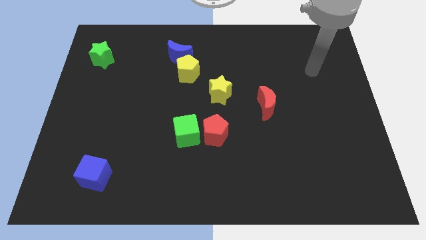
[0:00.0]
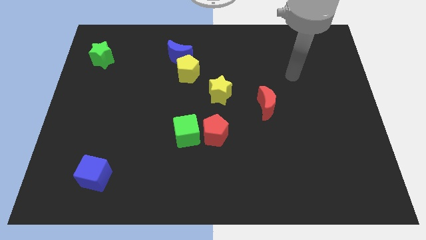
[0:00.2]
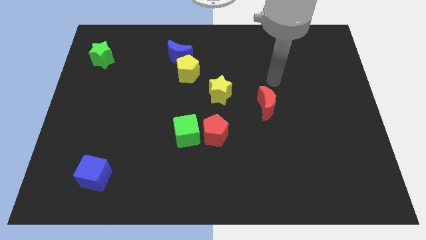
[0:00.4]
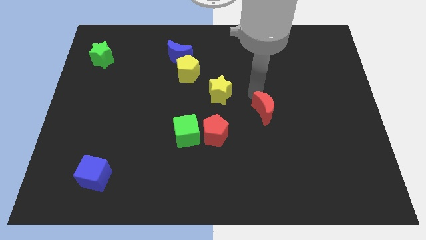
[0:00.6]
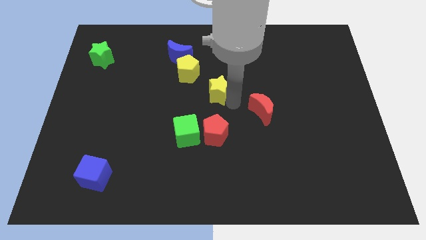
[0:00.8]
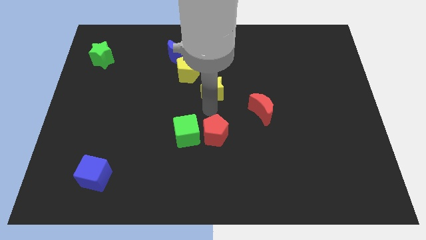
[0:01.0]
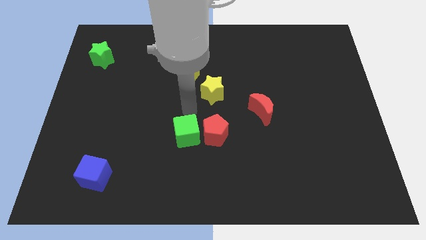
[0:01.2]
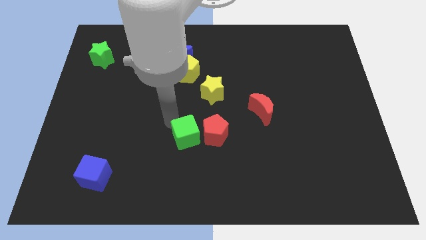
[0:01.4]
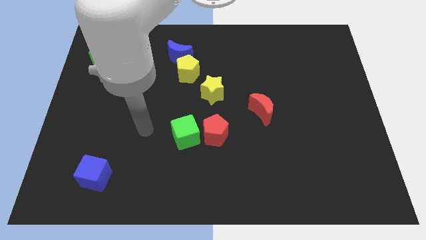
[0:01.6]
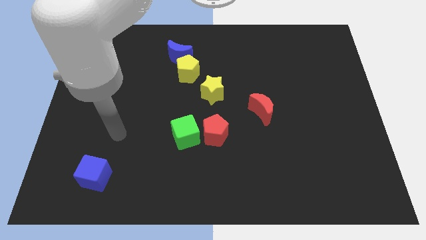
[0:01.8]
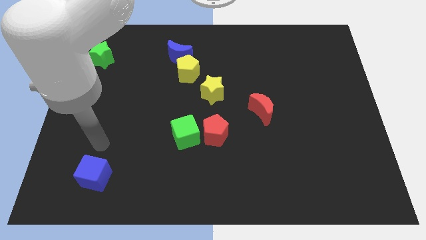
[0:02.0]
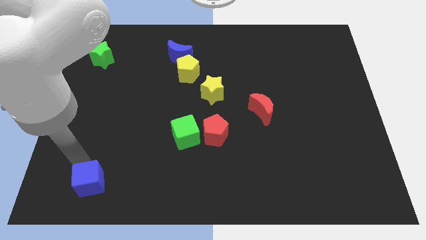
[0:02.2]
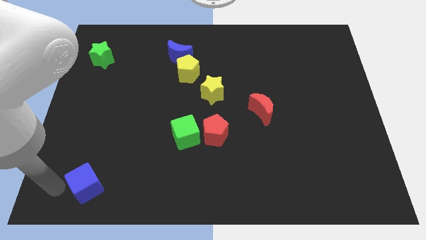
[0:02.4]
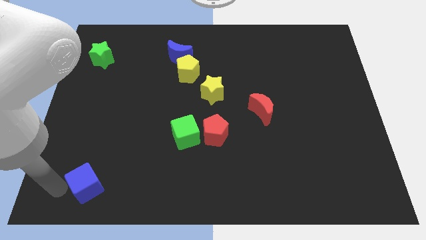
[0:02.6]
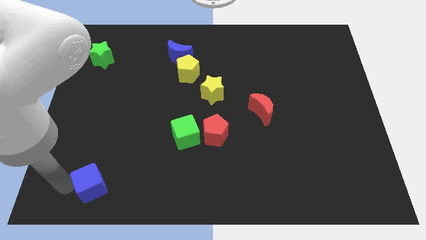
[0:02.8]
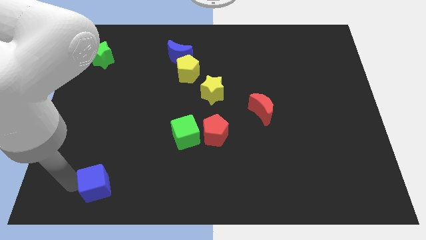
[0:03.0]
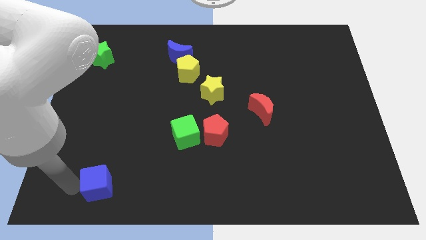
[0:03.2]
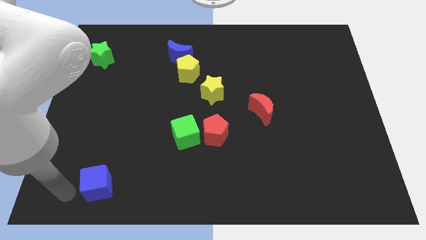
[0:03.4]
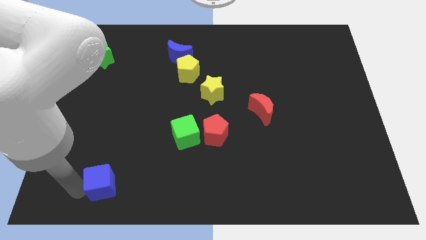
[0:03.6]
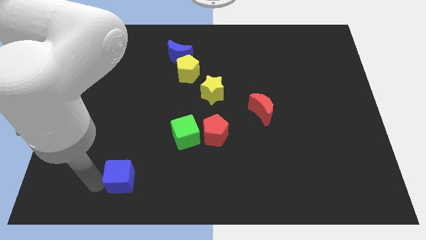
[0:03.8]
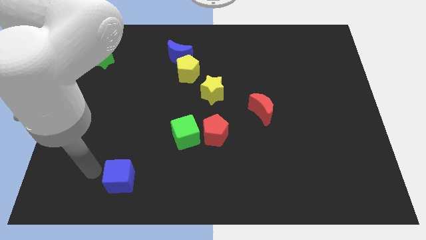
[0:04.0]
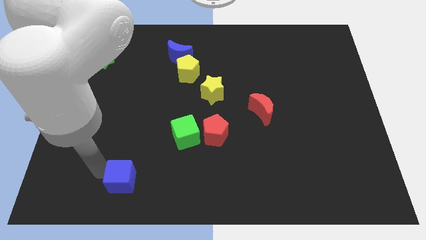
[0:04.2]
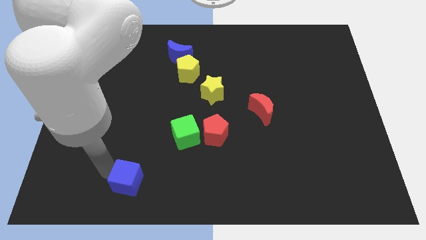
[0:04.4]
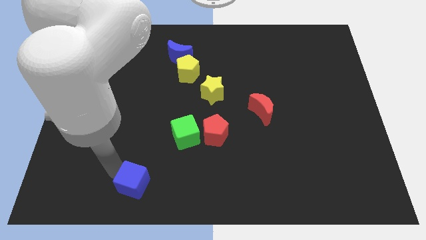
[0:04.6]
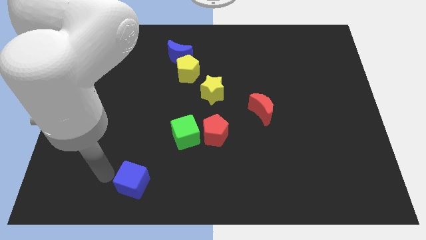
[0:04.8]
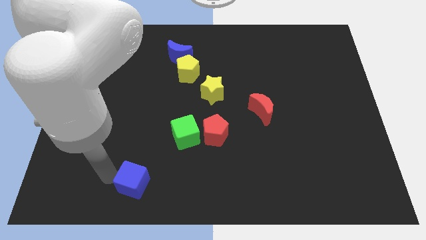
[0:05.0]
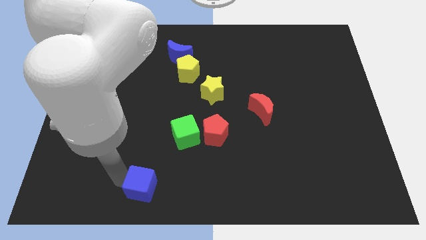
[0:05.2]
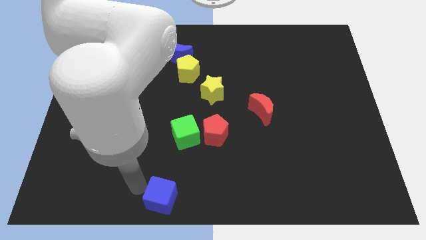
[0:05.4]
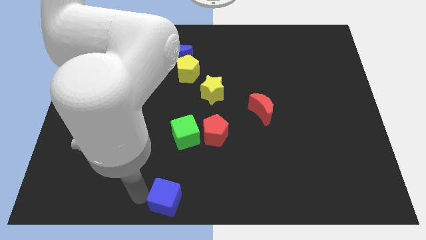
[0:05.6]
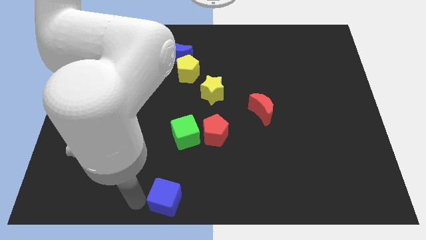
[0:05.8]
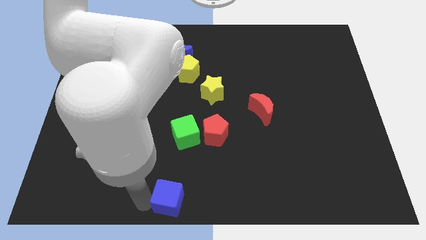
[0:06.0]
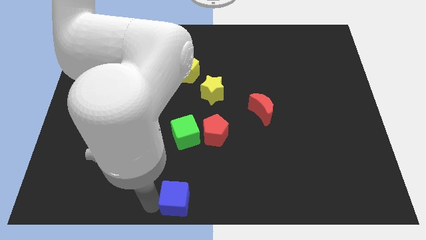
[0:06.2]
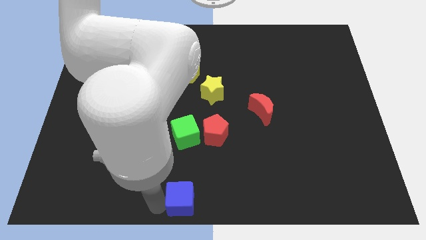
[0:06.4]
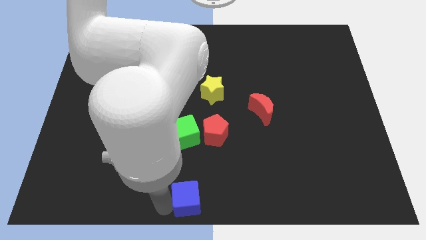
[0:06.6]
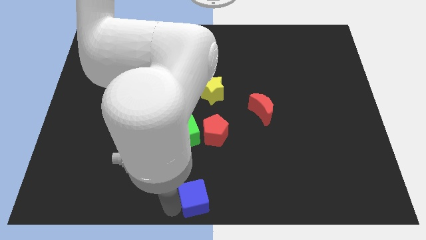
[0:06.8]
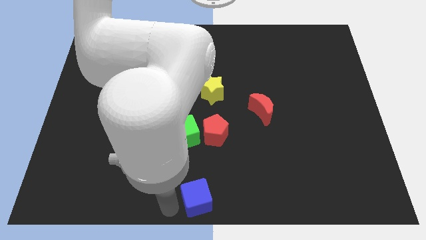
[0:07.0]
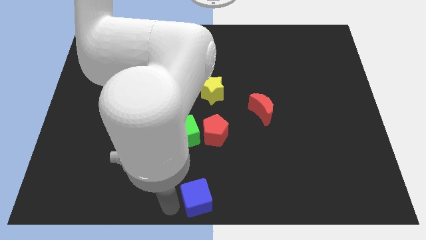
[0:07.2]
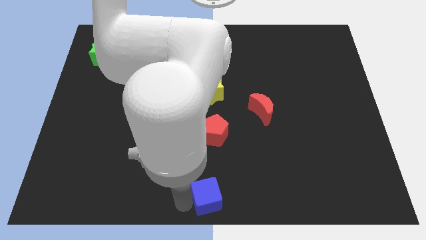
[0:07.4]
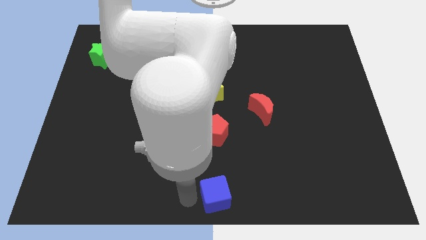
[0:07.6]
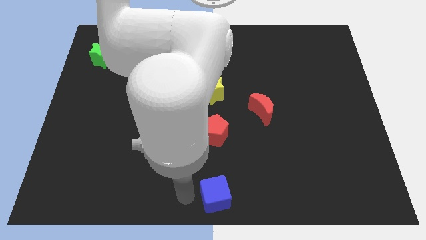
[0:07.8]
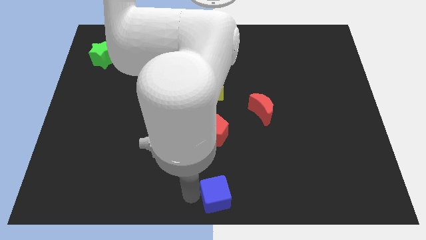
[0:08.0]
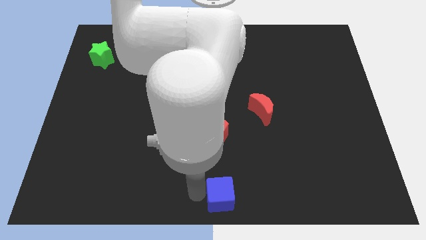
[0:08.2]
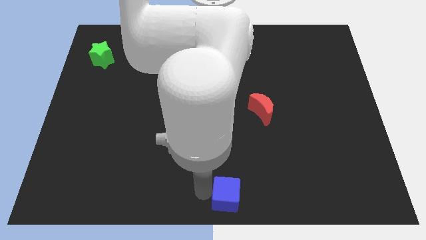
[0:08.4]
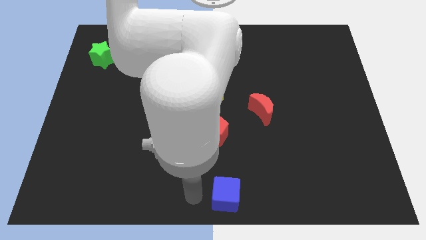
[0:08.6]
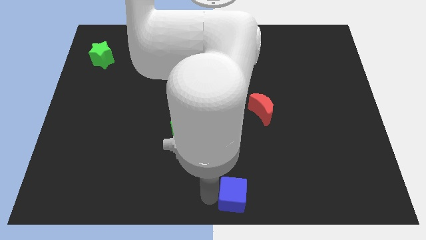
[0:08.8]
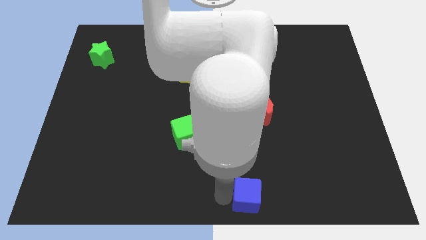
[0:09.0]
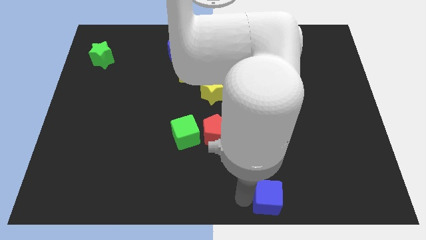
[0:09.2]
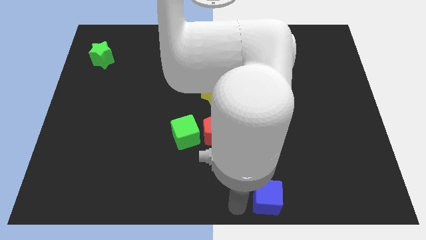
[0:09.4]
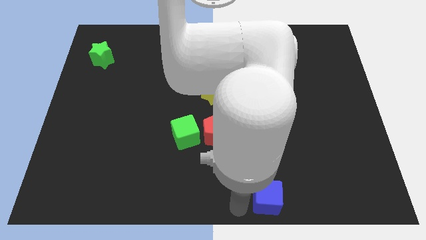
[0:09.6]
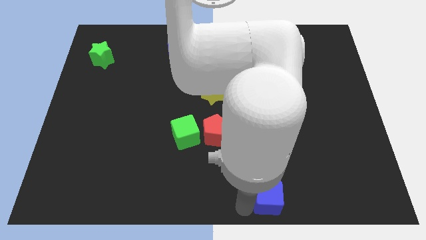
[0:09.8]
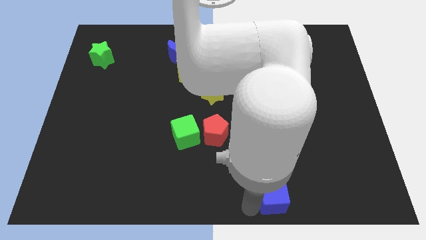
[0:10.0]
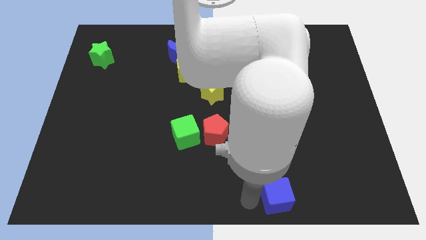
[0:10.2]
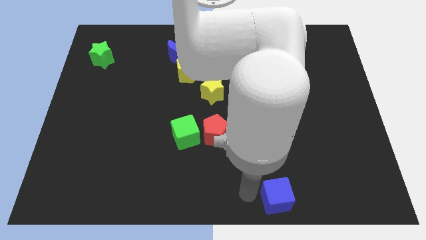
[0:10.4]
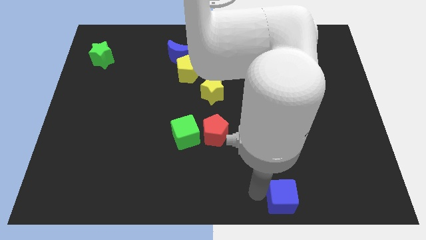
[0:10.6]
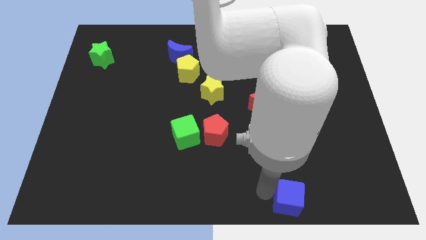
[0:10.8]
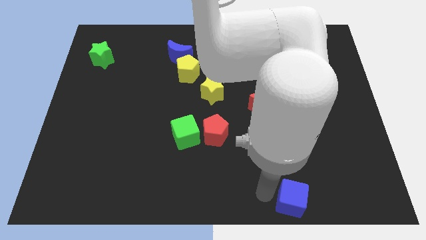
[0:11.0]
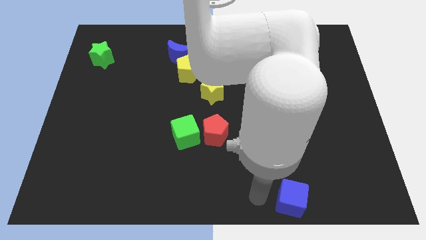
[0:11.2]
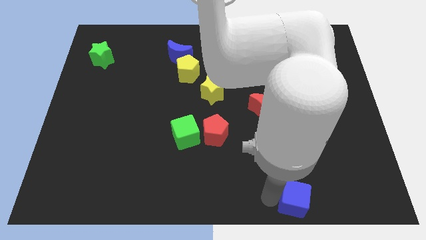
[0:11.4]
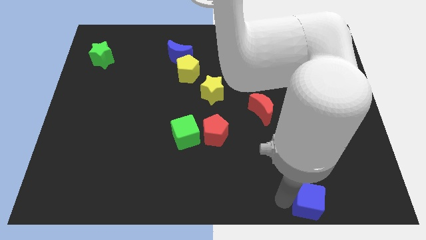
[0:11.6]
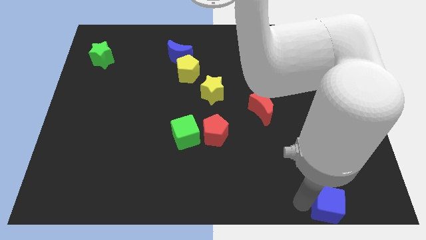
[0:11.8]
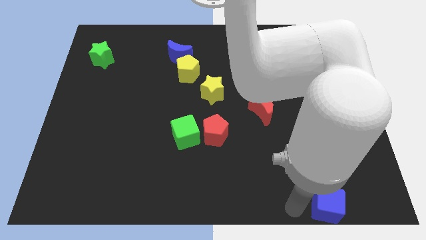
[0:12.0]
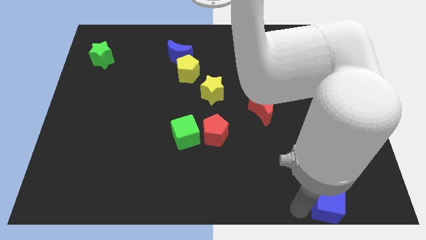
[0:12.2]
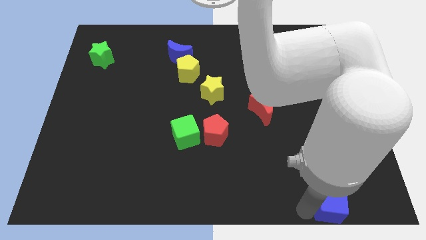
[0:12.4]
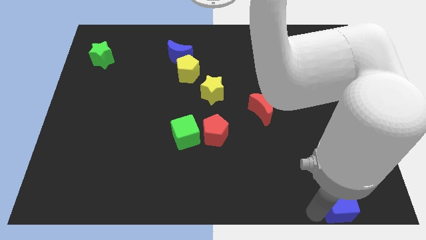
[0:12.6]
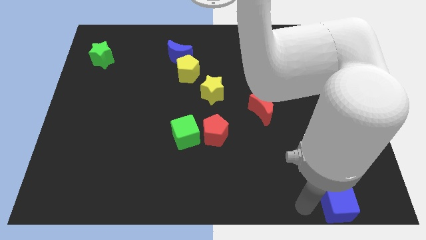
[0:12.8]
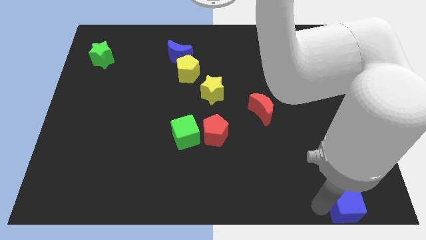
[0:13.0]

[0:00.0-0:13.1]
push the blue cube to the bottom right of the board
